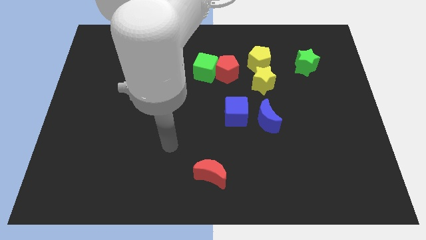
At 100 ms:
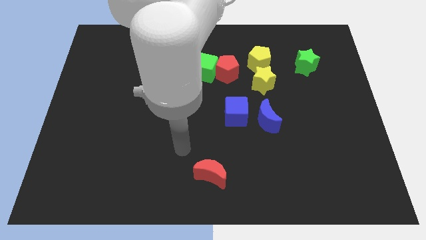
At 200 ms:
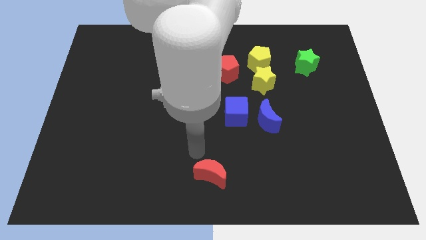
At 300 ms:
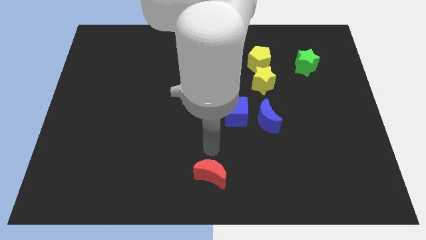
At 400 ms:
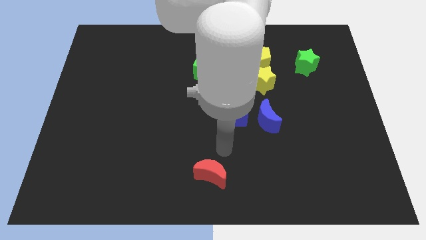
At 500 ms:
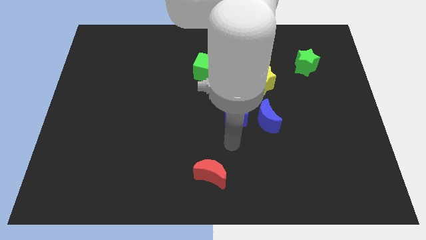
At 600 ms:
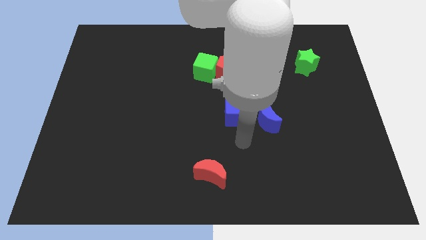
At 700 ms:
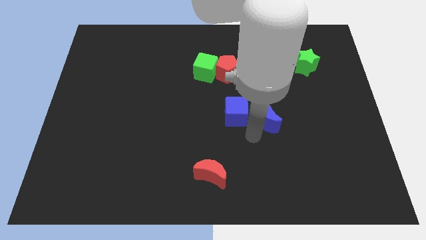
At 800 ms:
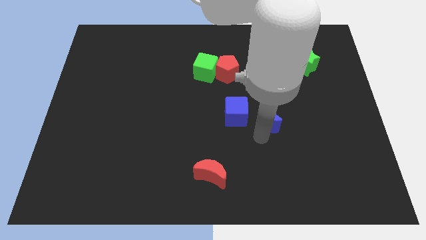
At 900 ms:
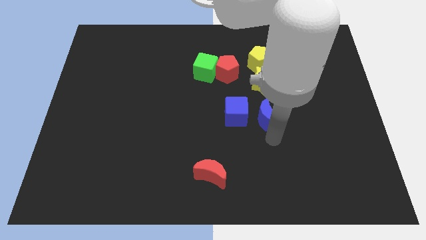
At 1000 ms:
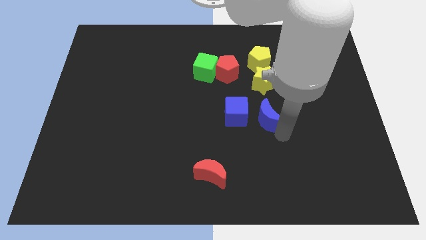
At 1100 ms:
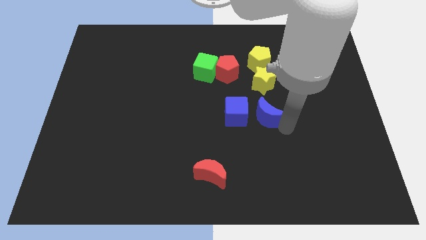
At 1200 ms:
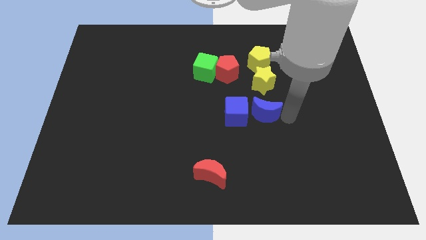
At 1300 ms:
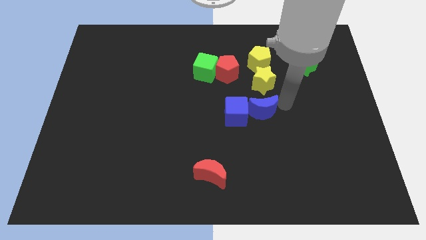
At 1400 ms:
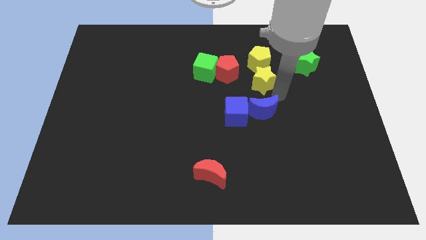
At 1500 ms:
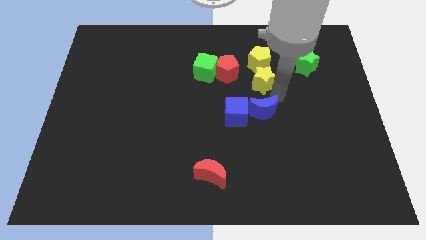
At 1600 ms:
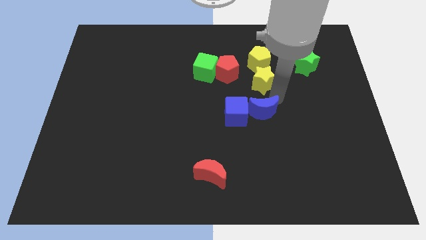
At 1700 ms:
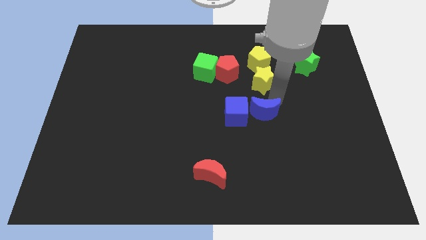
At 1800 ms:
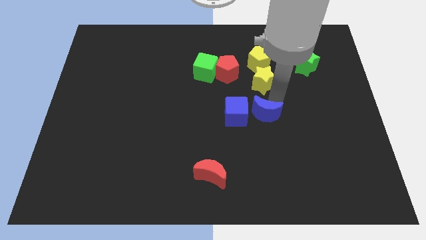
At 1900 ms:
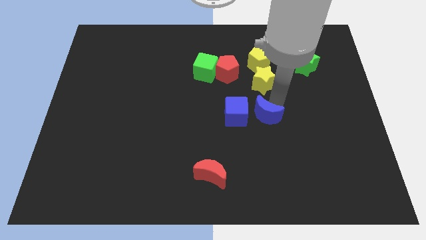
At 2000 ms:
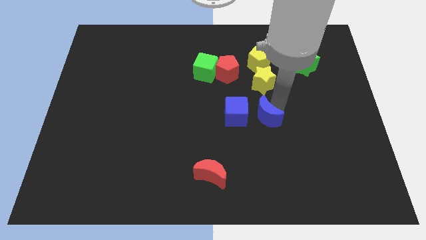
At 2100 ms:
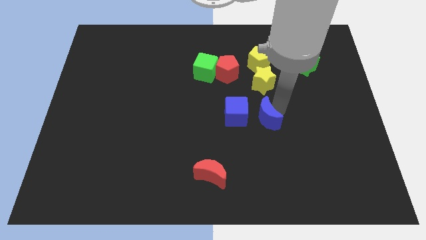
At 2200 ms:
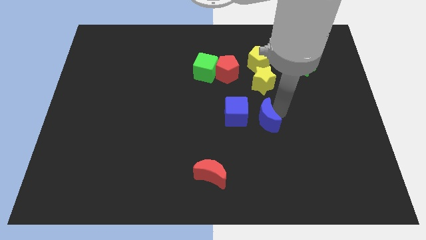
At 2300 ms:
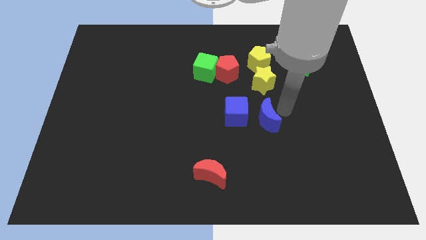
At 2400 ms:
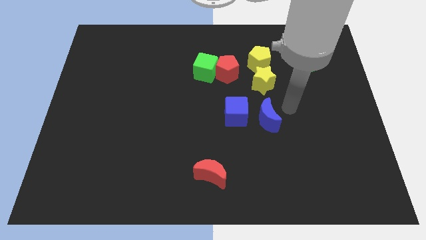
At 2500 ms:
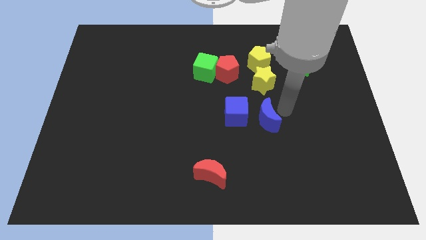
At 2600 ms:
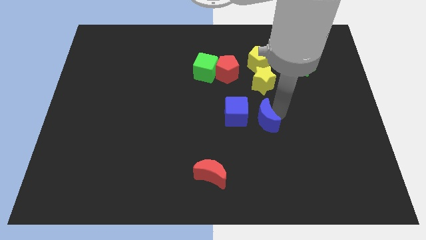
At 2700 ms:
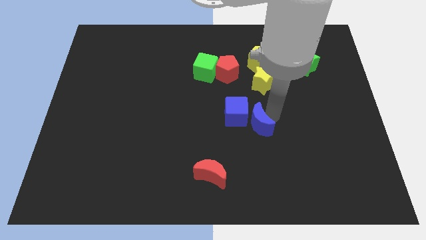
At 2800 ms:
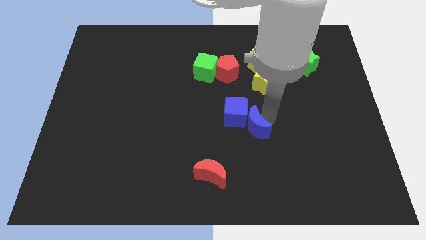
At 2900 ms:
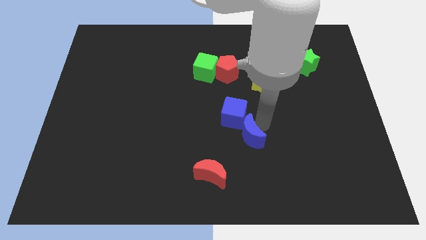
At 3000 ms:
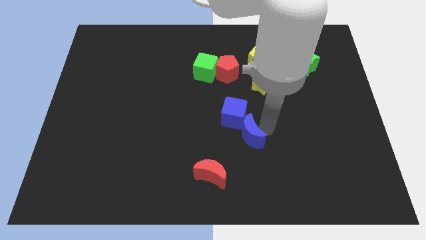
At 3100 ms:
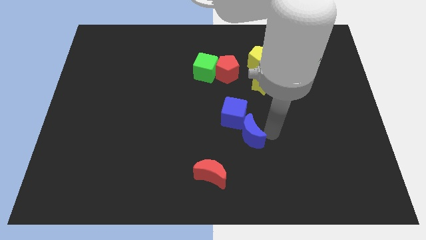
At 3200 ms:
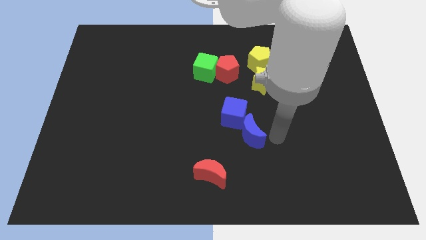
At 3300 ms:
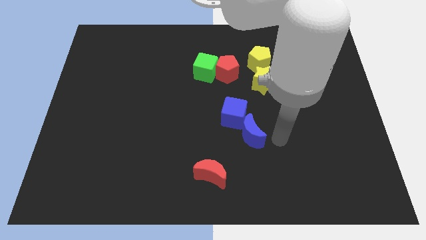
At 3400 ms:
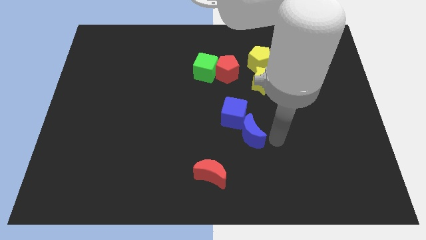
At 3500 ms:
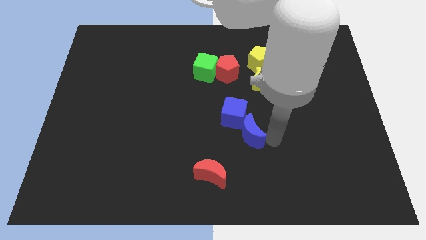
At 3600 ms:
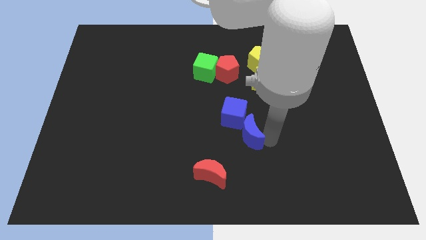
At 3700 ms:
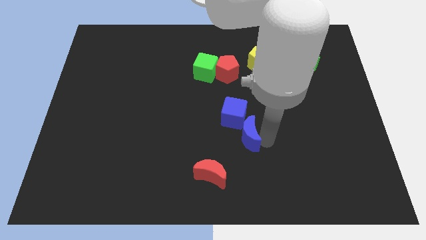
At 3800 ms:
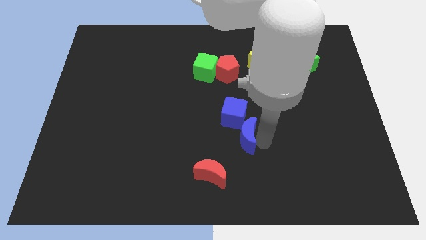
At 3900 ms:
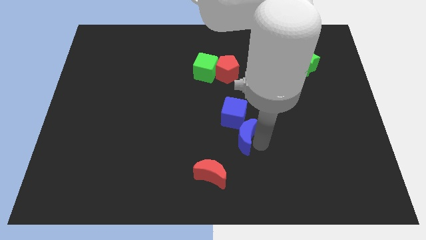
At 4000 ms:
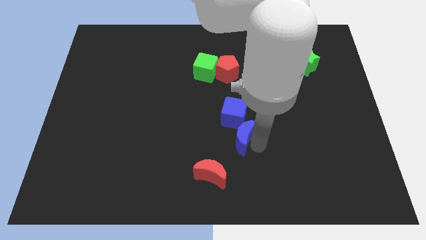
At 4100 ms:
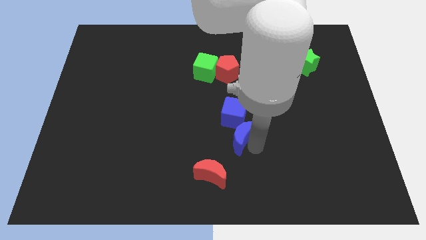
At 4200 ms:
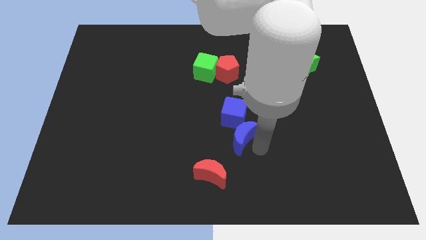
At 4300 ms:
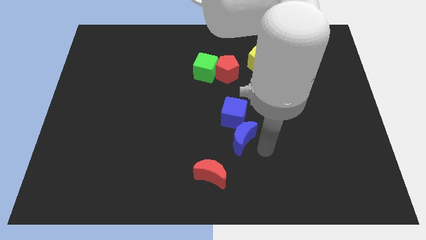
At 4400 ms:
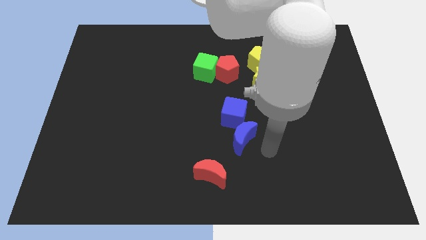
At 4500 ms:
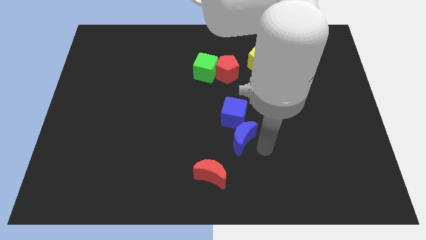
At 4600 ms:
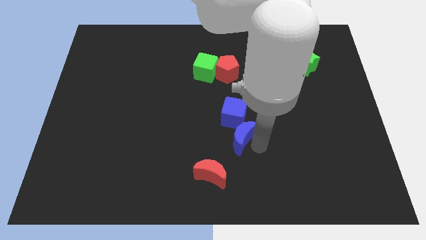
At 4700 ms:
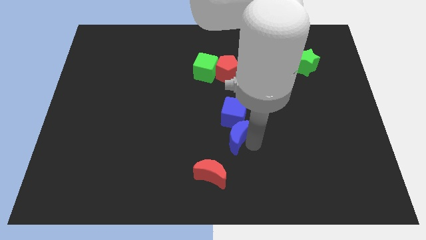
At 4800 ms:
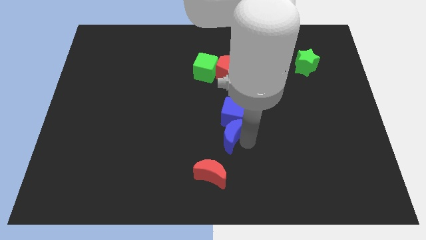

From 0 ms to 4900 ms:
push the blue moon left a little bit

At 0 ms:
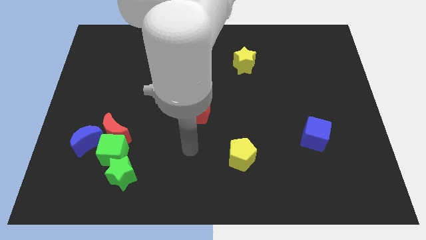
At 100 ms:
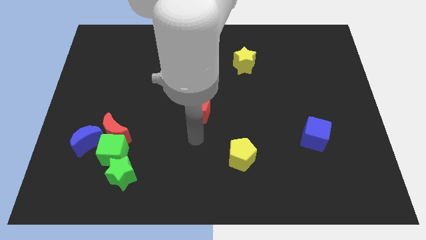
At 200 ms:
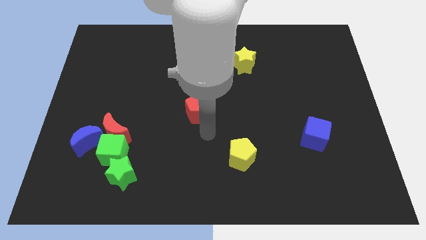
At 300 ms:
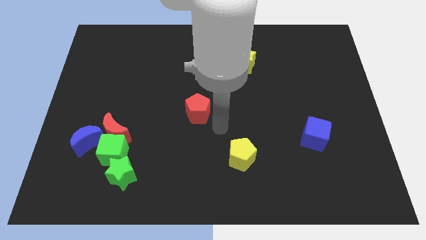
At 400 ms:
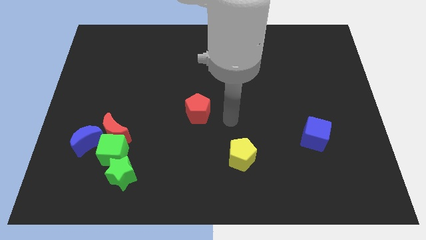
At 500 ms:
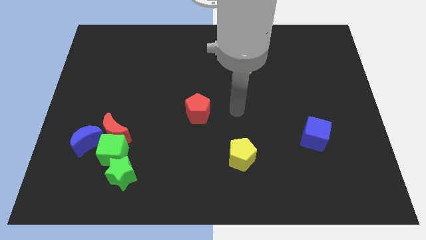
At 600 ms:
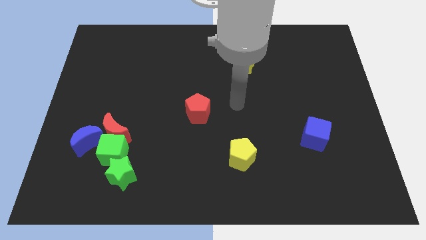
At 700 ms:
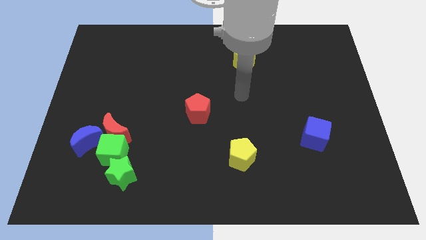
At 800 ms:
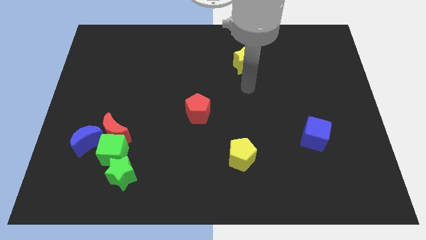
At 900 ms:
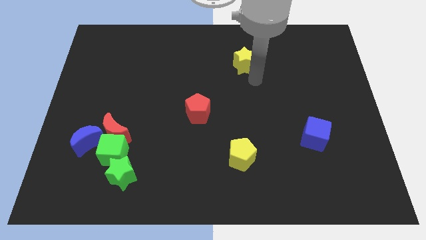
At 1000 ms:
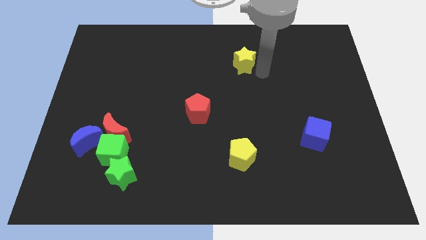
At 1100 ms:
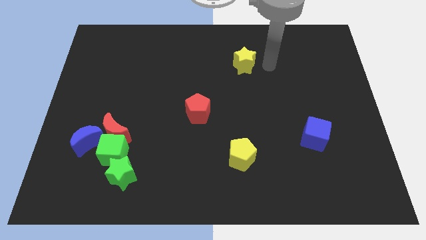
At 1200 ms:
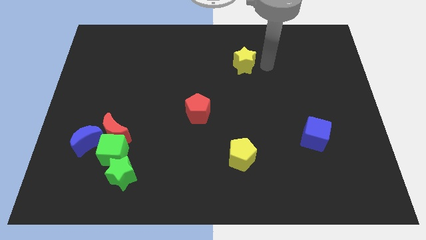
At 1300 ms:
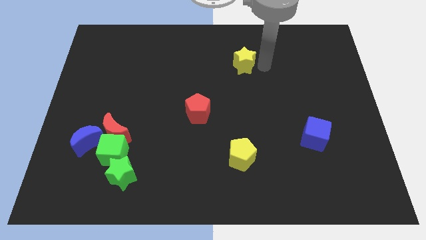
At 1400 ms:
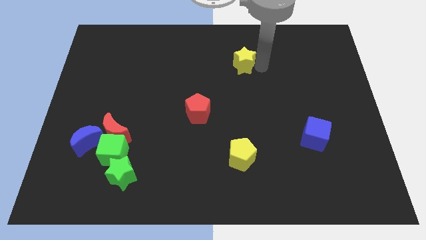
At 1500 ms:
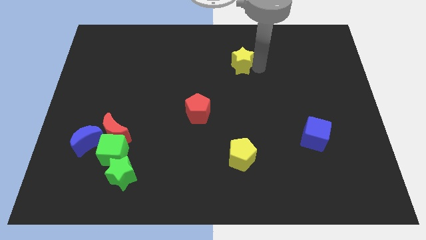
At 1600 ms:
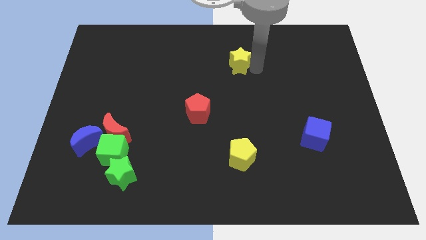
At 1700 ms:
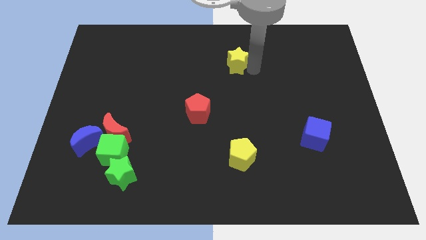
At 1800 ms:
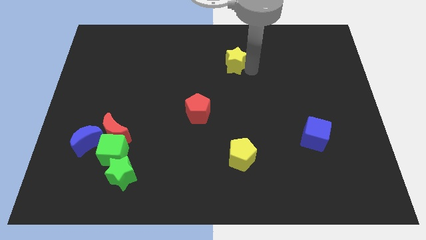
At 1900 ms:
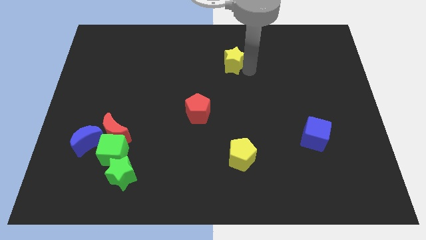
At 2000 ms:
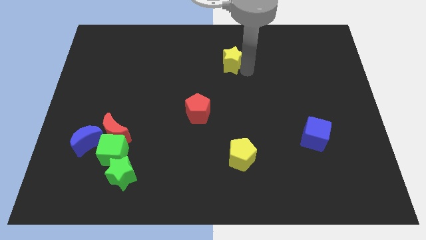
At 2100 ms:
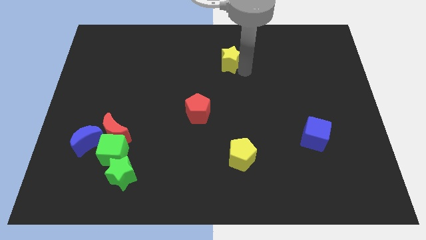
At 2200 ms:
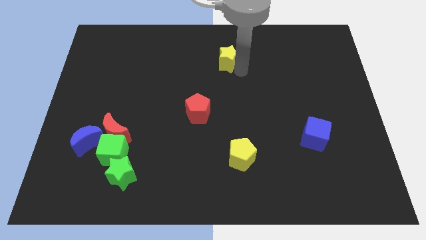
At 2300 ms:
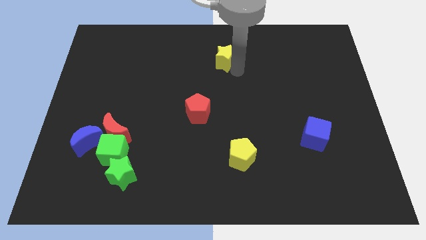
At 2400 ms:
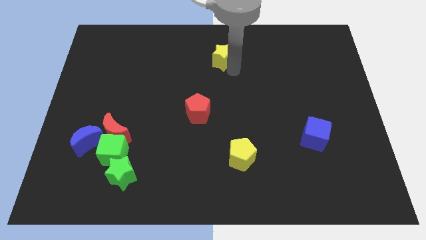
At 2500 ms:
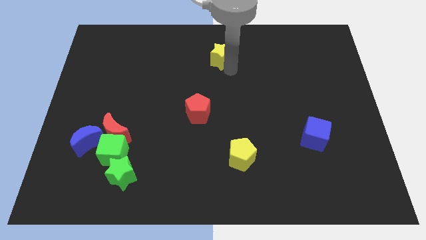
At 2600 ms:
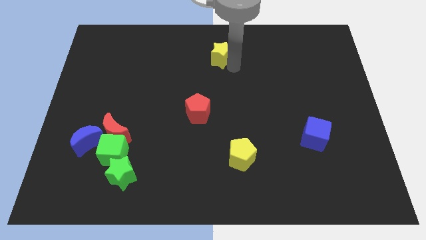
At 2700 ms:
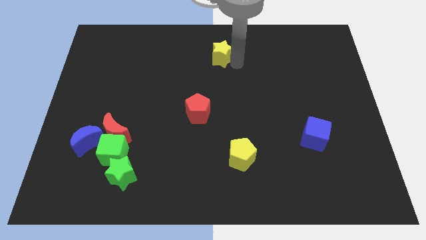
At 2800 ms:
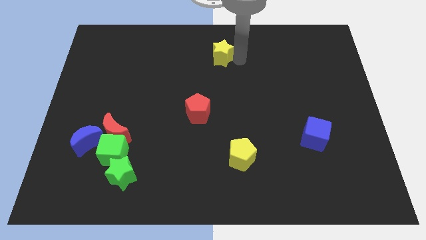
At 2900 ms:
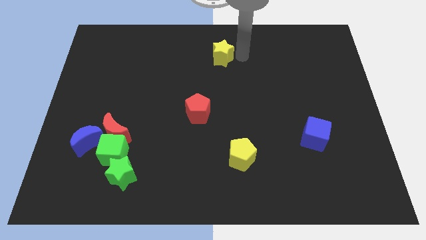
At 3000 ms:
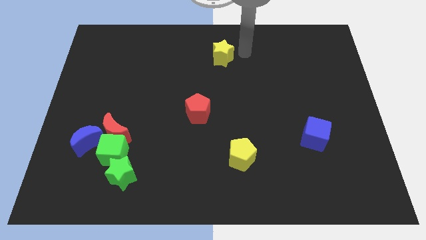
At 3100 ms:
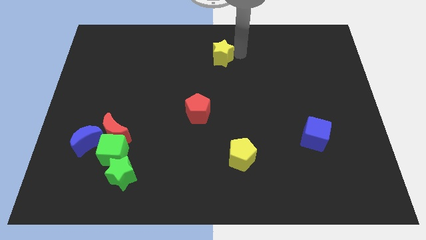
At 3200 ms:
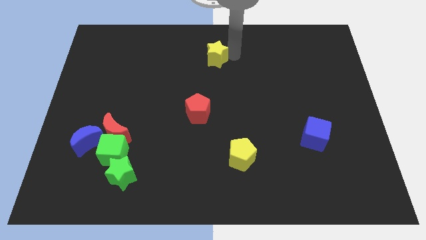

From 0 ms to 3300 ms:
push the yellow star left a little bit

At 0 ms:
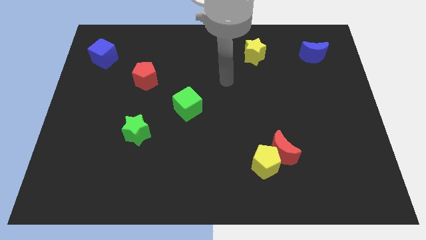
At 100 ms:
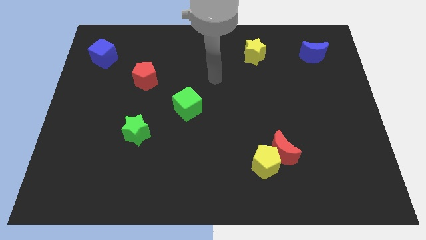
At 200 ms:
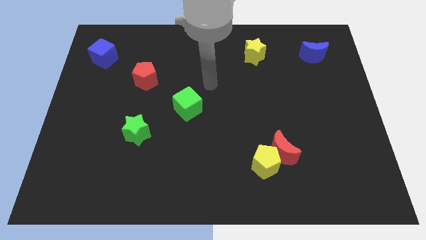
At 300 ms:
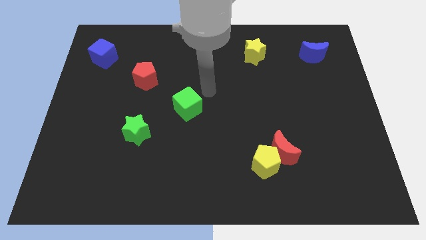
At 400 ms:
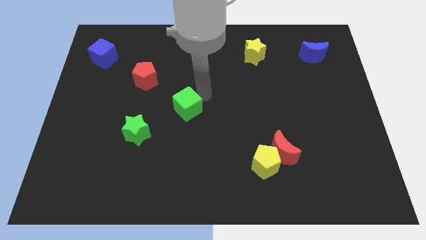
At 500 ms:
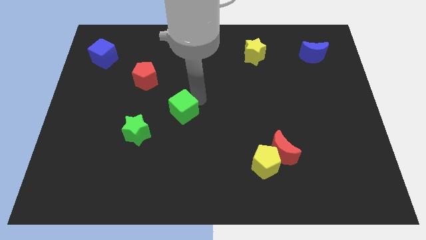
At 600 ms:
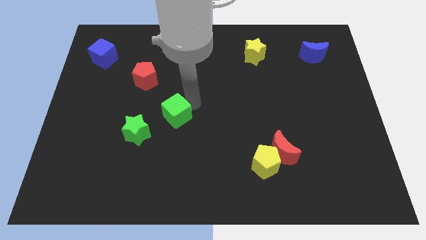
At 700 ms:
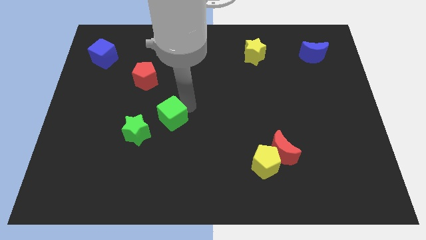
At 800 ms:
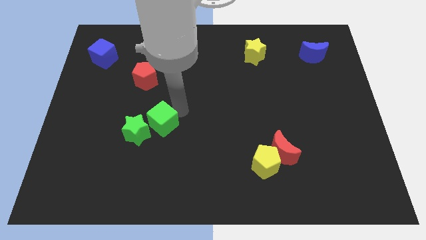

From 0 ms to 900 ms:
push the green cube downwards and left a little bit
